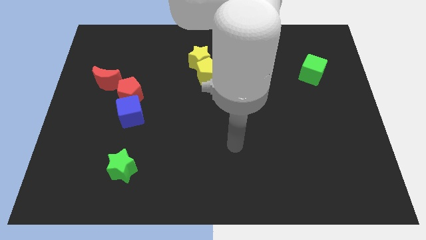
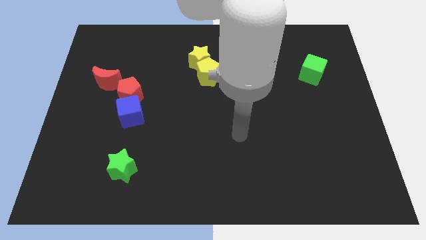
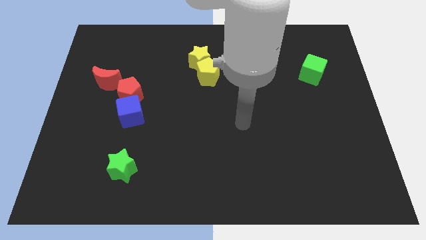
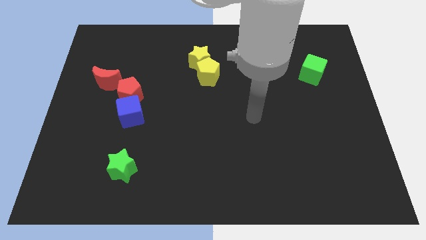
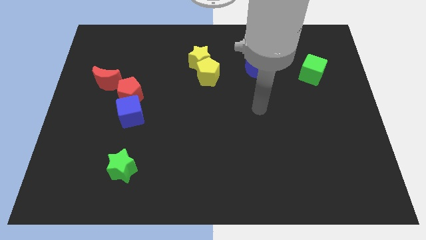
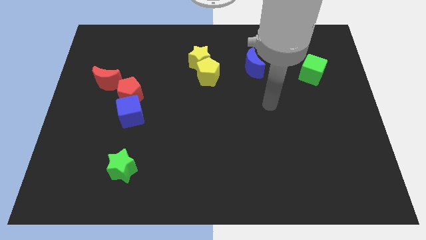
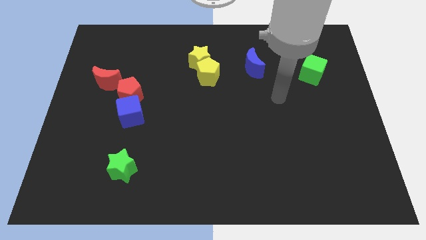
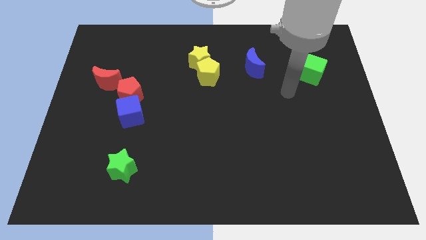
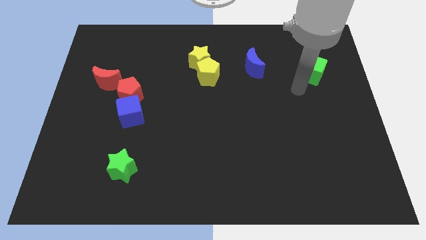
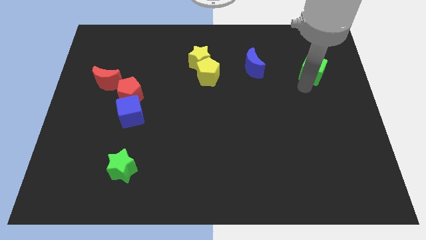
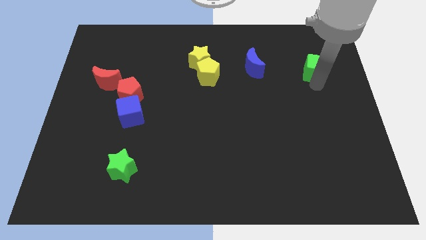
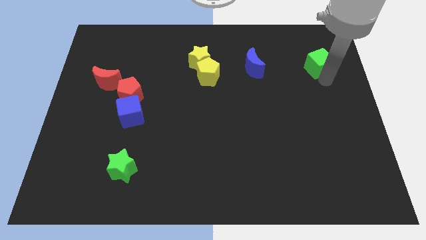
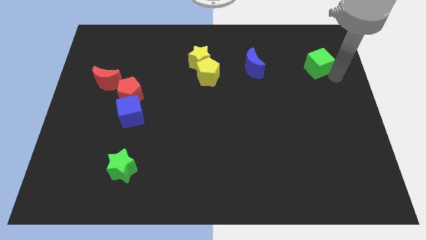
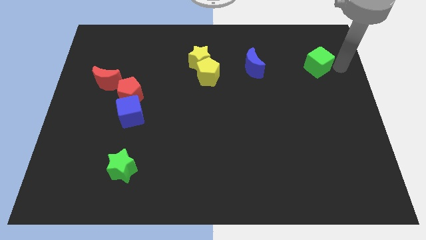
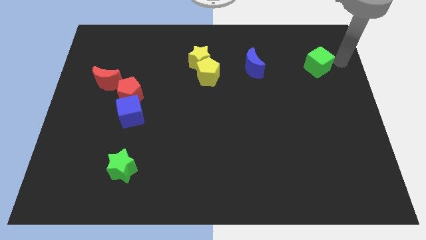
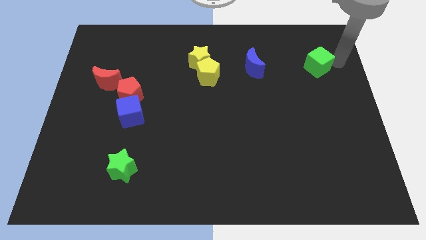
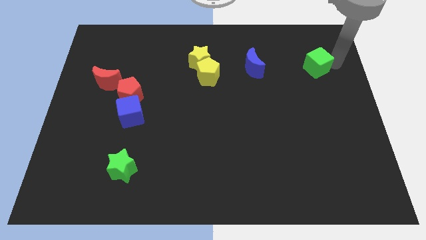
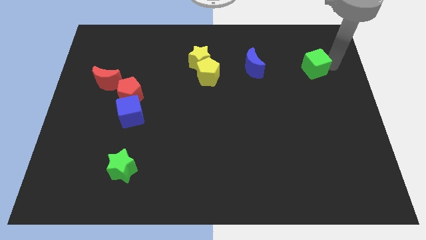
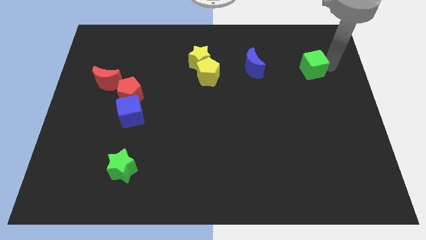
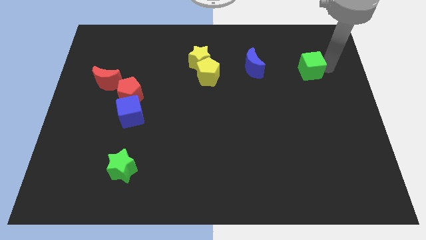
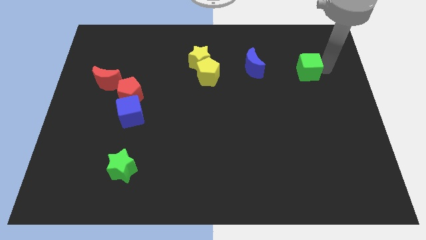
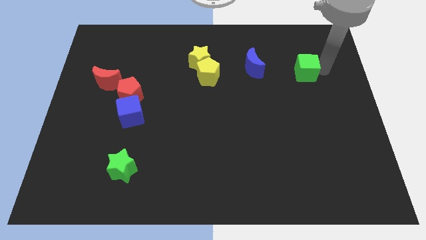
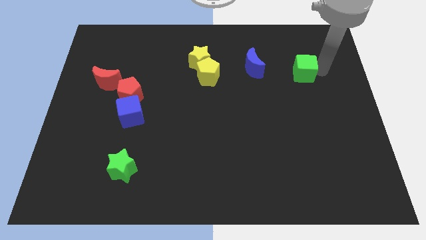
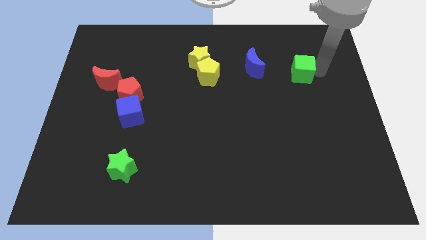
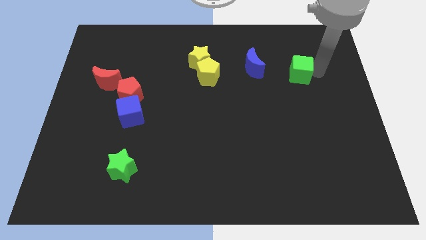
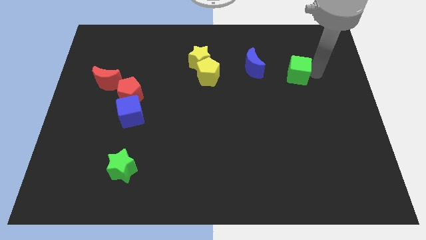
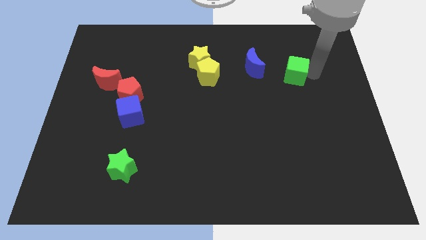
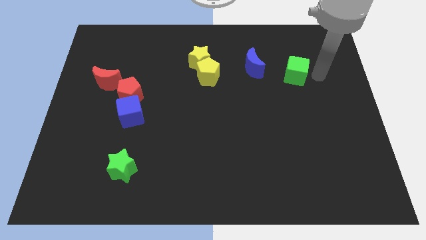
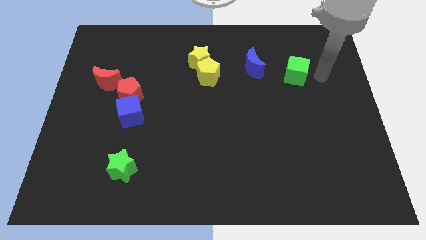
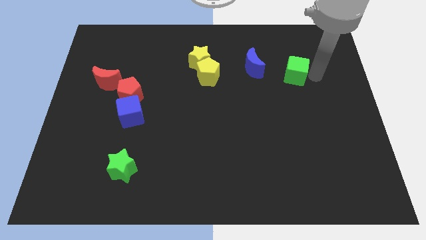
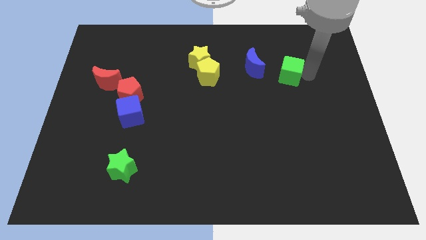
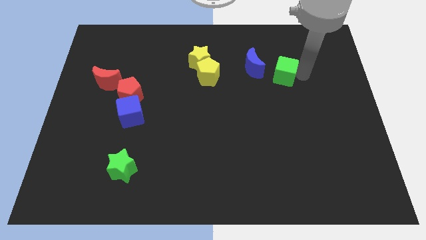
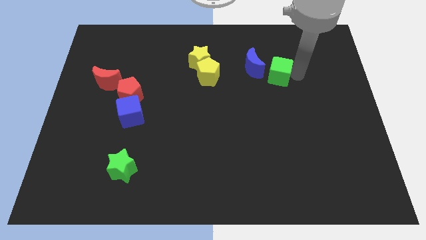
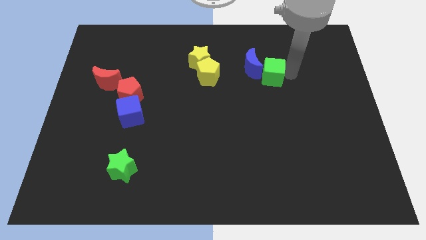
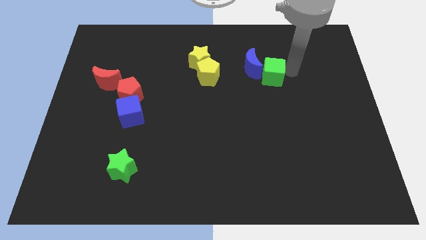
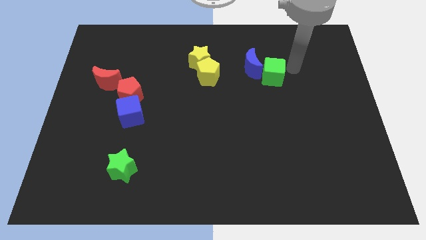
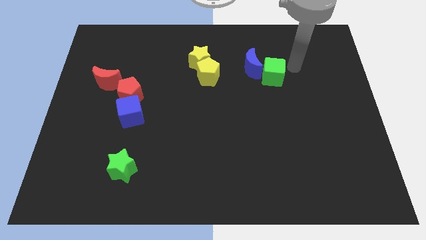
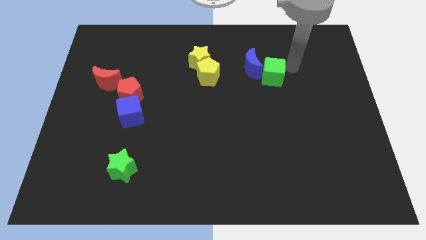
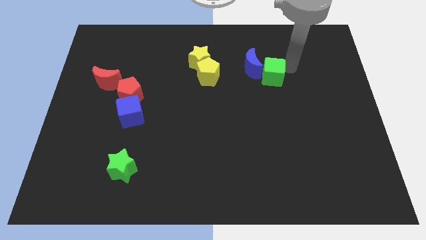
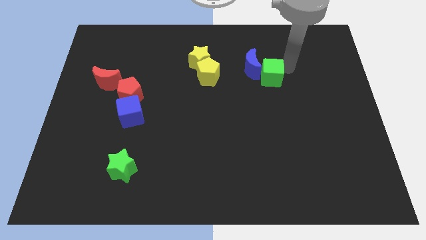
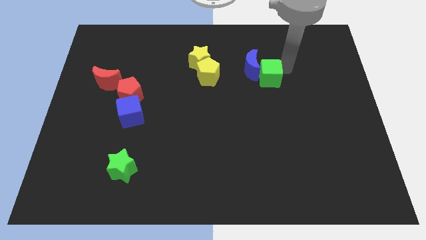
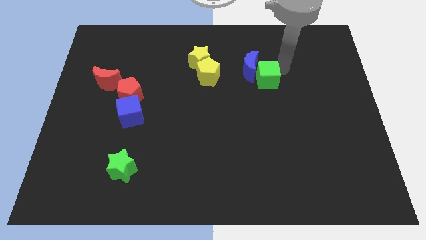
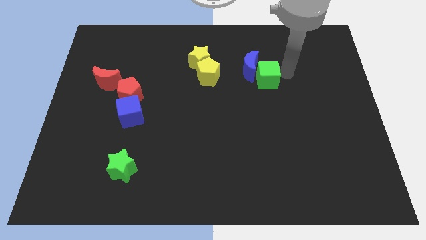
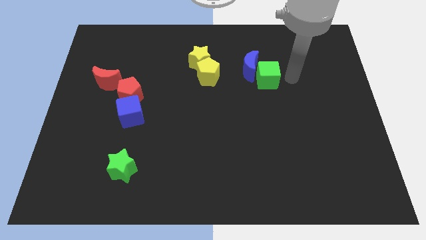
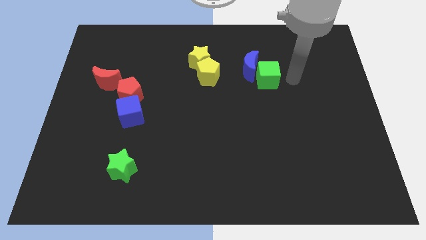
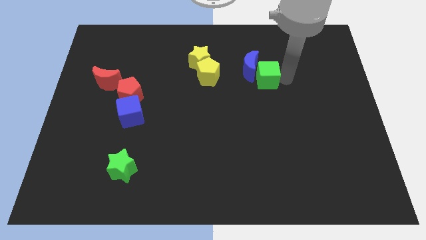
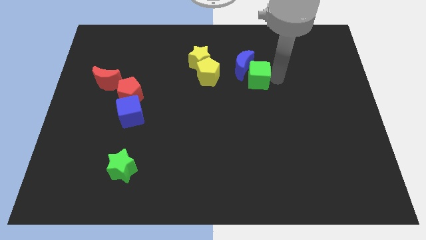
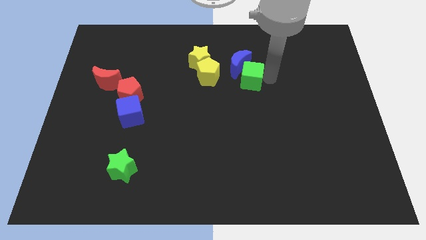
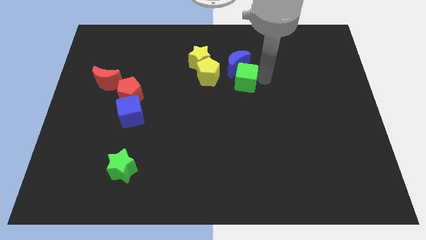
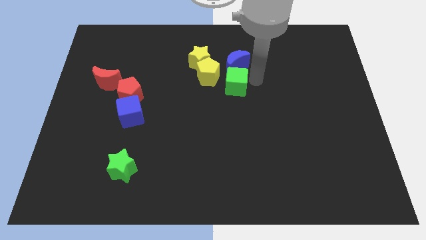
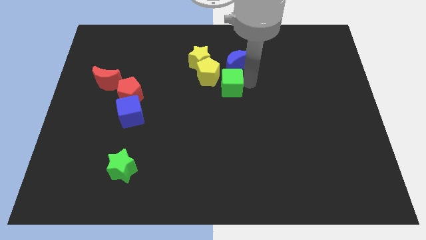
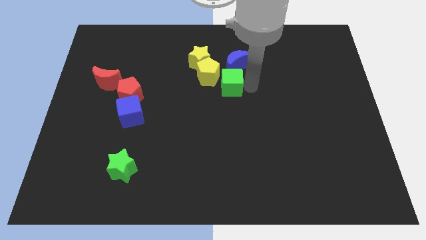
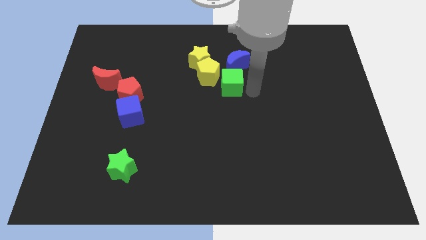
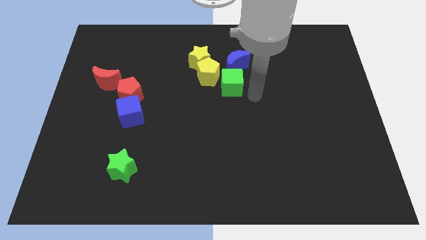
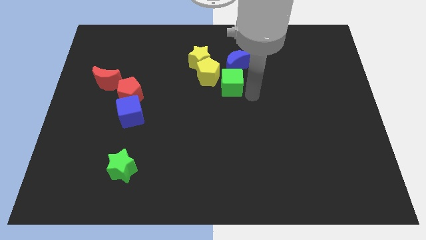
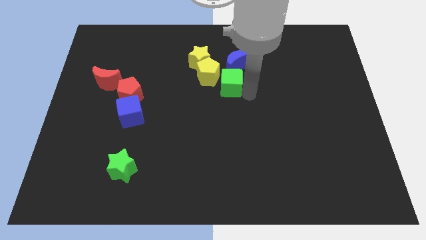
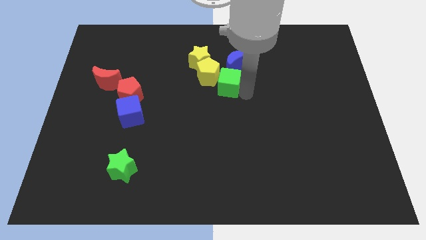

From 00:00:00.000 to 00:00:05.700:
put the green cube to the yellow pentagon

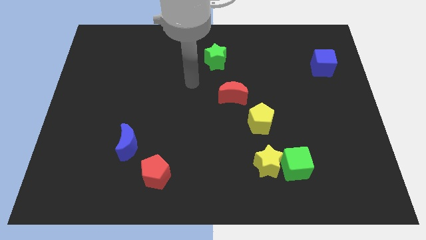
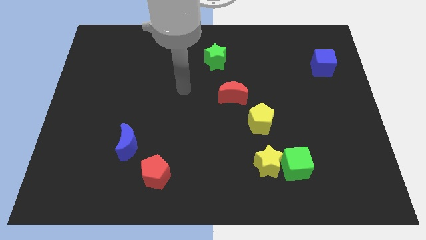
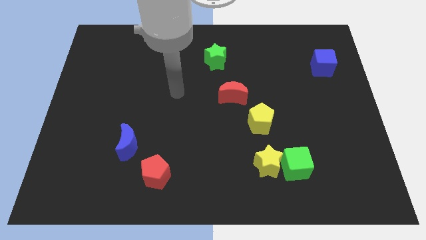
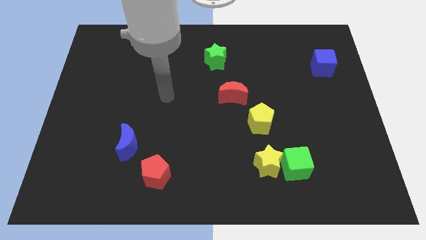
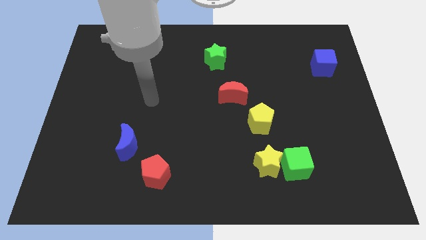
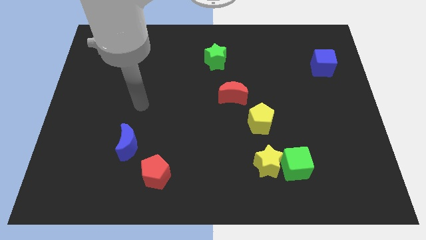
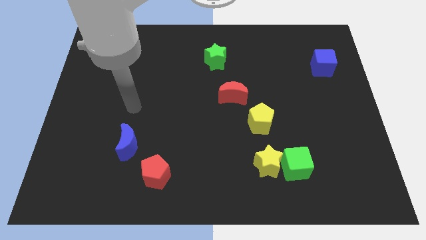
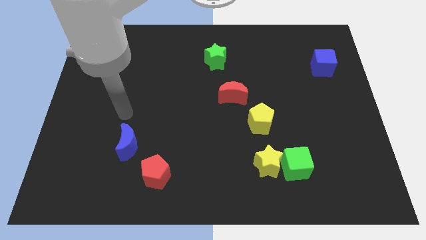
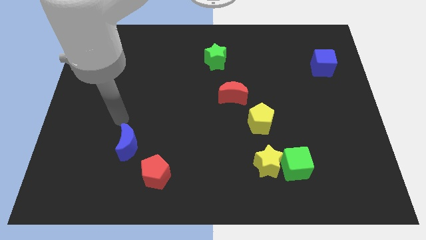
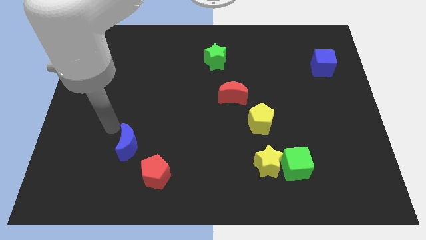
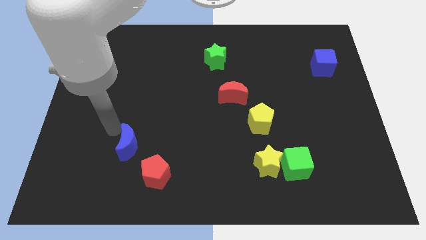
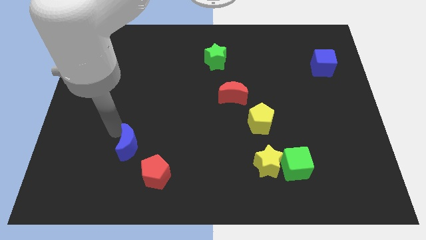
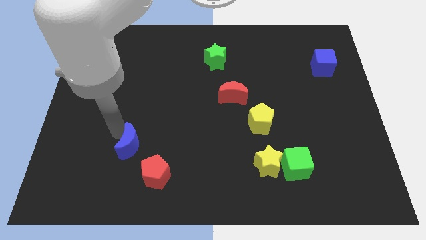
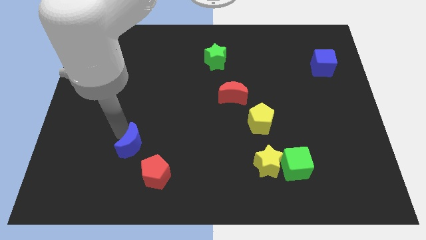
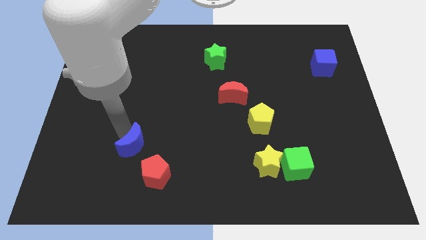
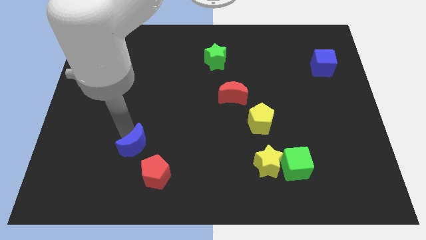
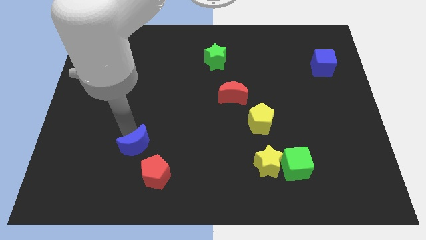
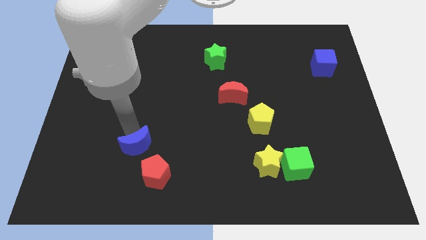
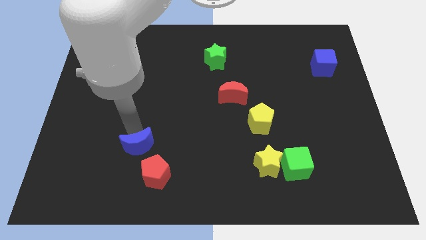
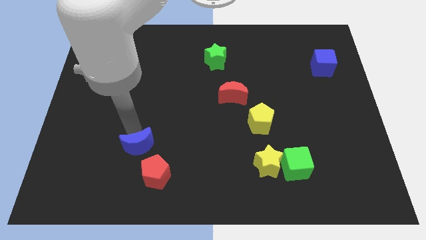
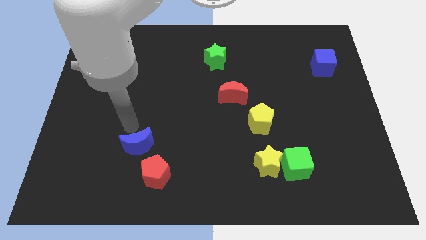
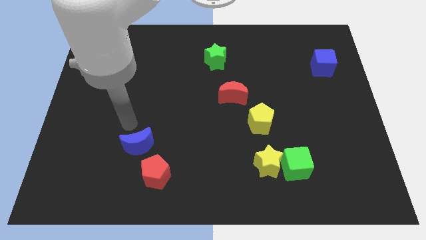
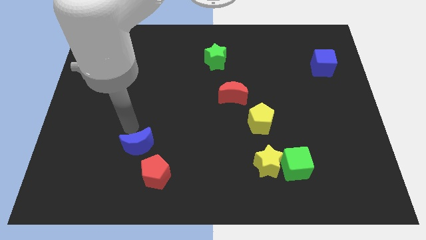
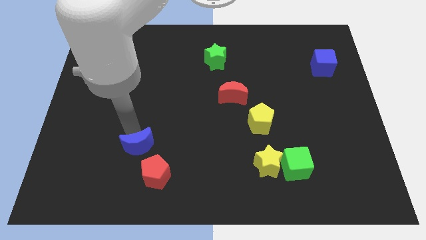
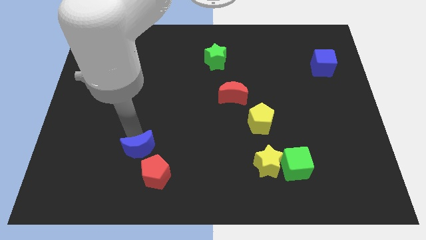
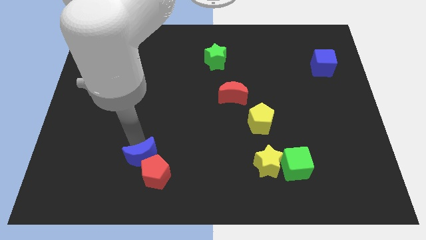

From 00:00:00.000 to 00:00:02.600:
put the blue moon next to the red pentagon
